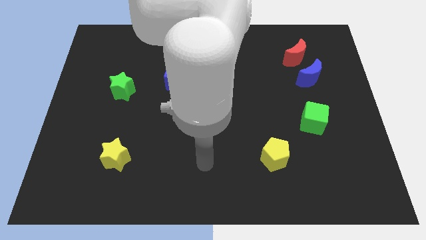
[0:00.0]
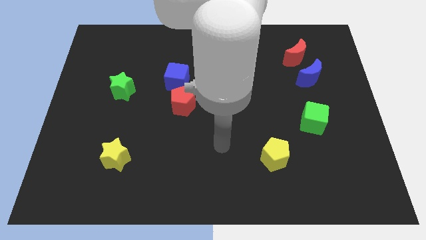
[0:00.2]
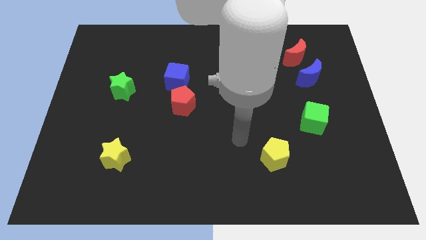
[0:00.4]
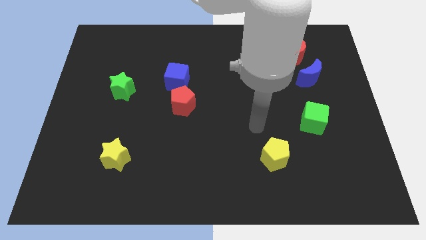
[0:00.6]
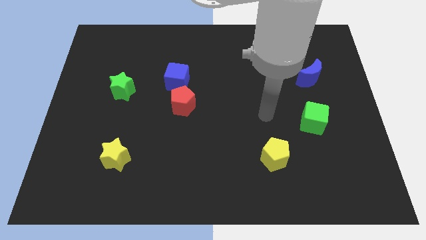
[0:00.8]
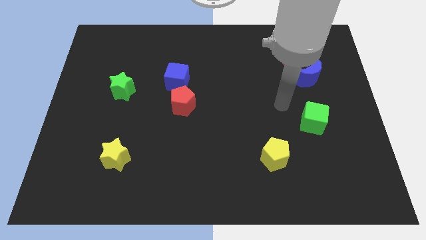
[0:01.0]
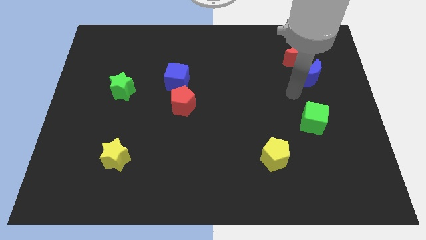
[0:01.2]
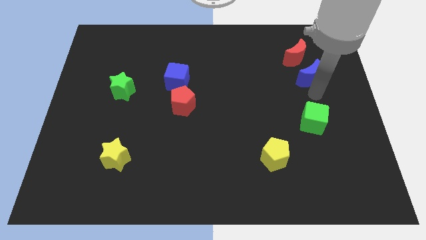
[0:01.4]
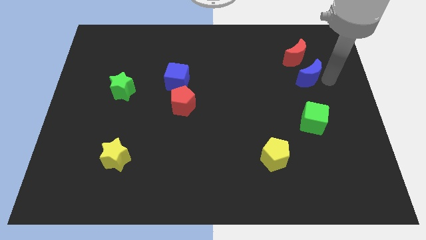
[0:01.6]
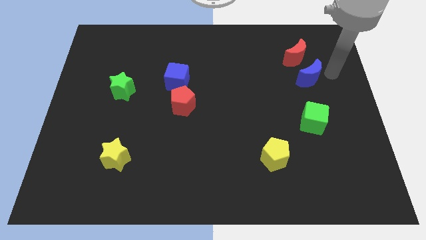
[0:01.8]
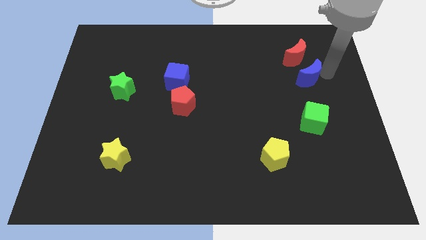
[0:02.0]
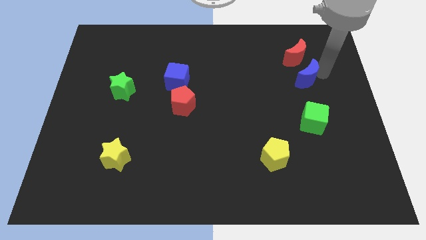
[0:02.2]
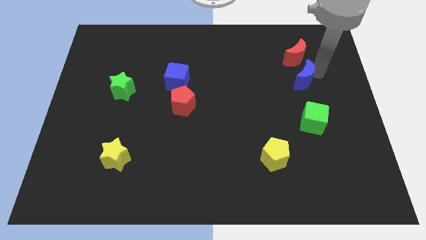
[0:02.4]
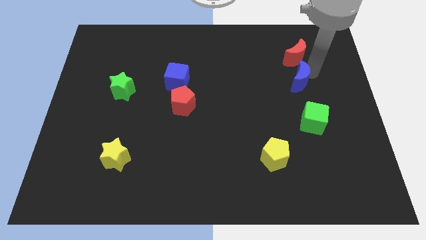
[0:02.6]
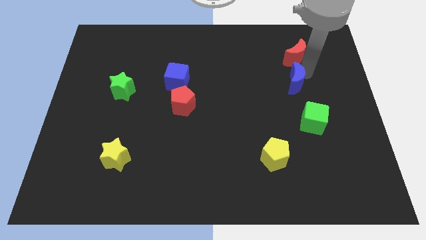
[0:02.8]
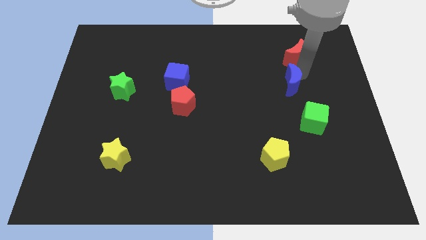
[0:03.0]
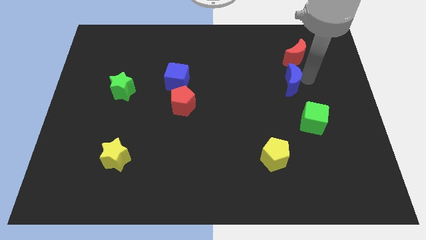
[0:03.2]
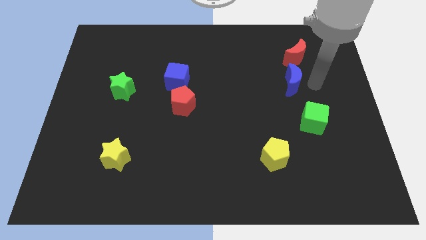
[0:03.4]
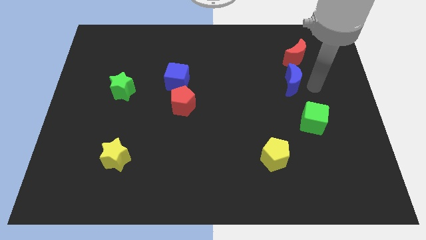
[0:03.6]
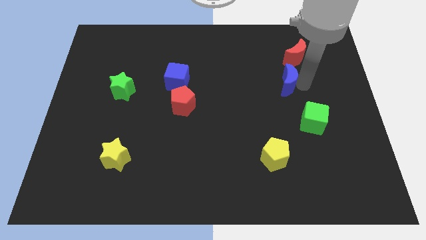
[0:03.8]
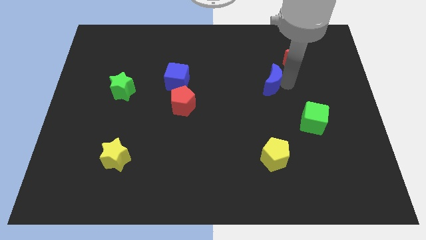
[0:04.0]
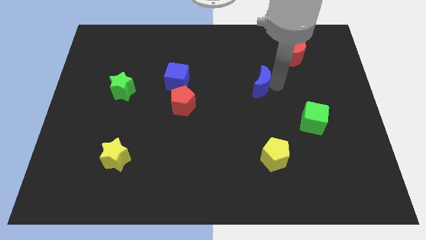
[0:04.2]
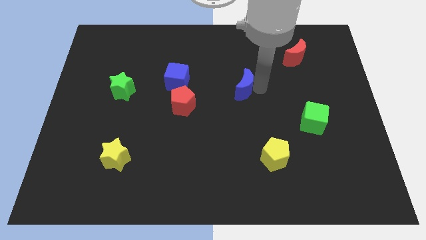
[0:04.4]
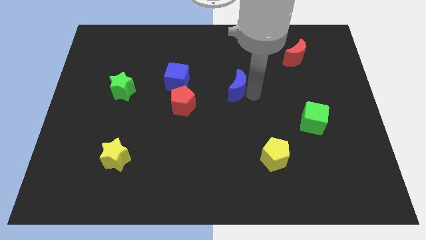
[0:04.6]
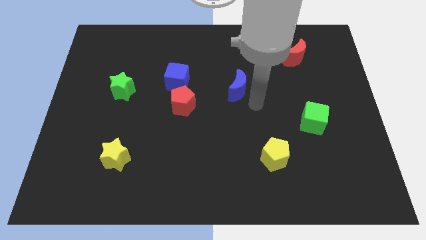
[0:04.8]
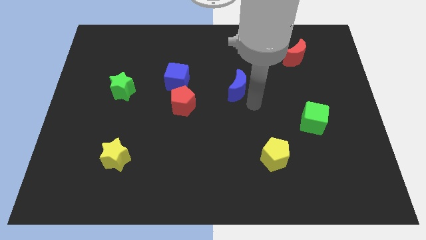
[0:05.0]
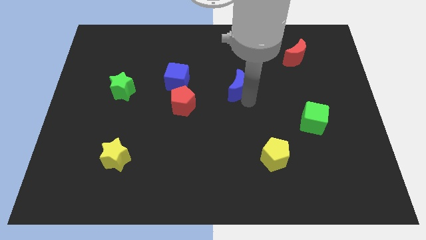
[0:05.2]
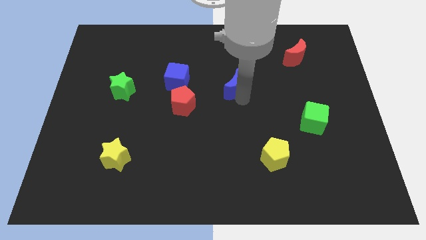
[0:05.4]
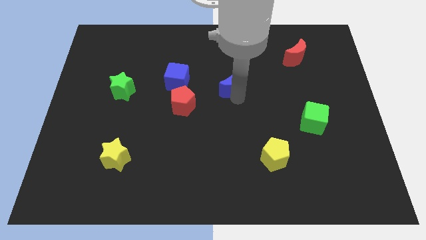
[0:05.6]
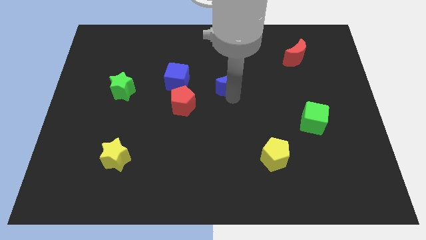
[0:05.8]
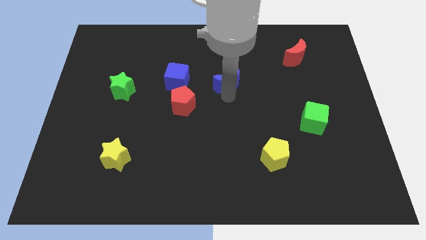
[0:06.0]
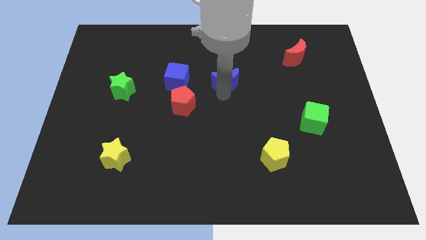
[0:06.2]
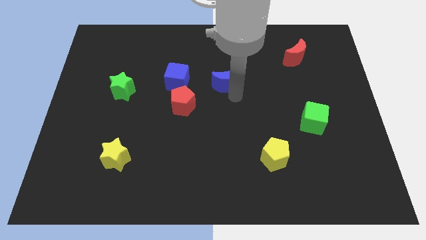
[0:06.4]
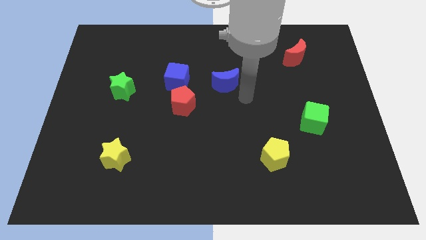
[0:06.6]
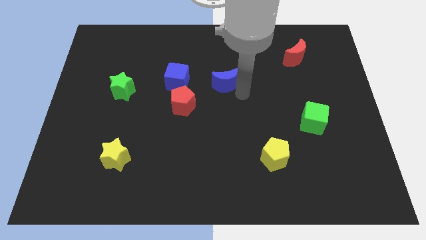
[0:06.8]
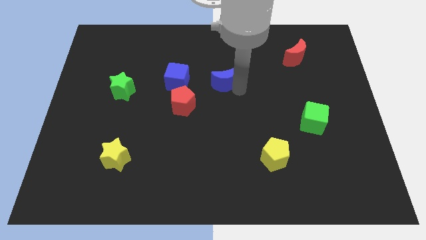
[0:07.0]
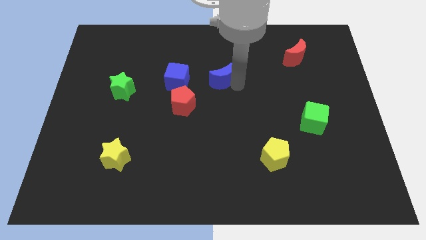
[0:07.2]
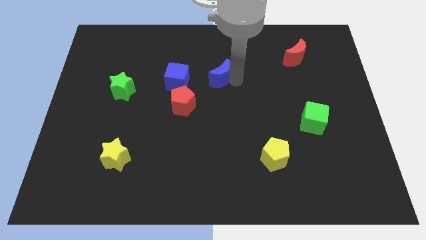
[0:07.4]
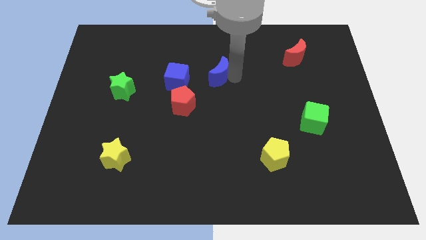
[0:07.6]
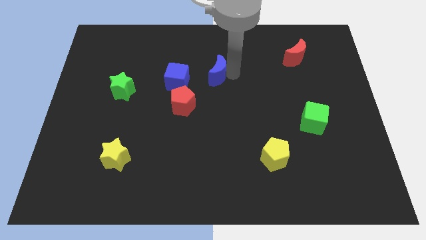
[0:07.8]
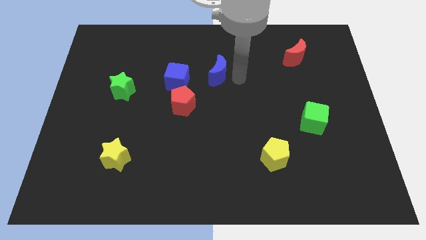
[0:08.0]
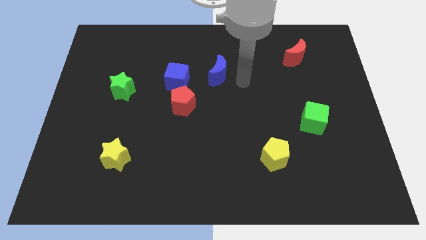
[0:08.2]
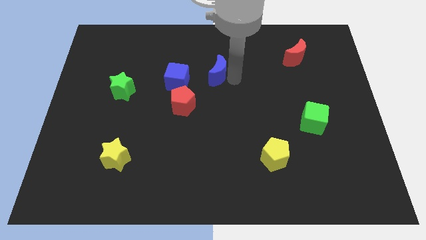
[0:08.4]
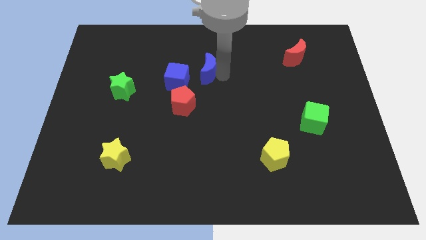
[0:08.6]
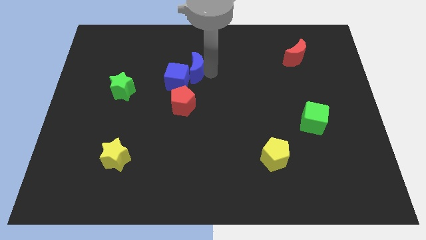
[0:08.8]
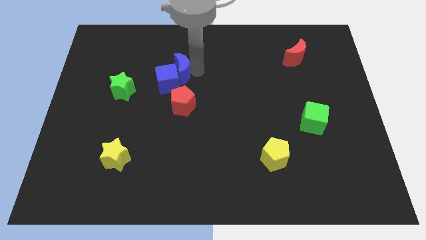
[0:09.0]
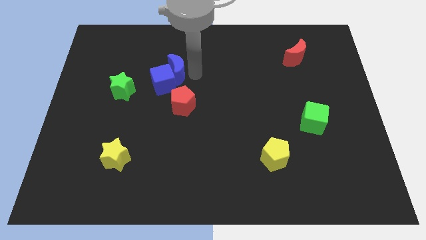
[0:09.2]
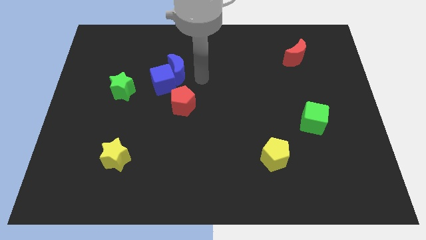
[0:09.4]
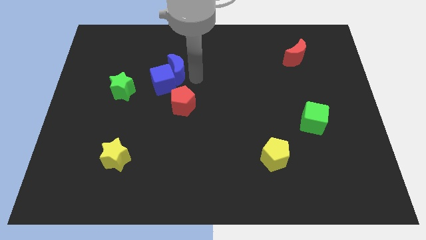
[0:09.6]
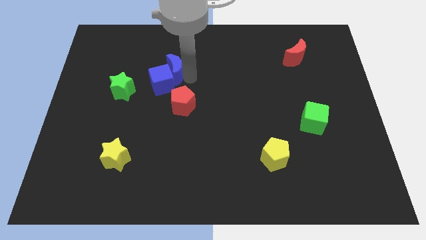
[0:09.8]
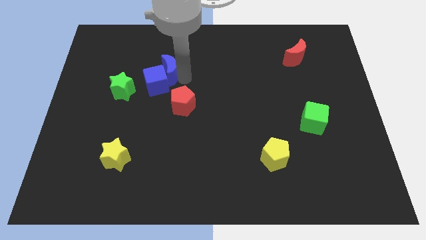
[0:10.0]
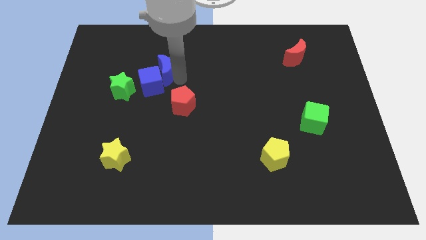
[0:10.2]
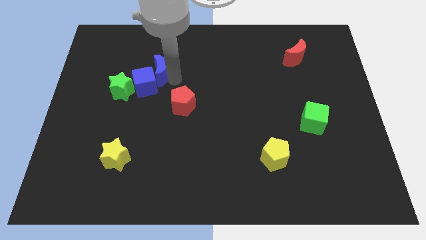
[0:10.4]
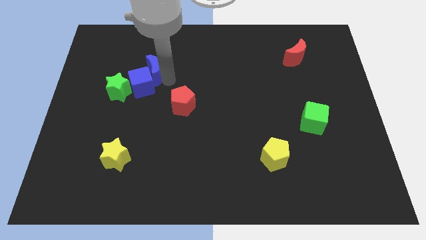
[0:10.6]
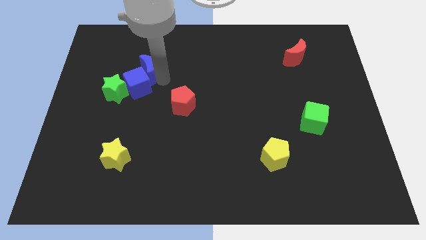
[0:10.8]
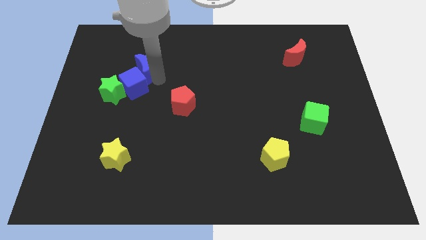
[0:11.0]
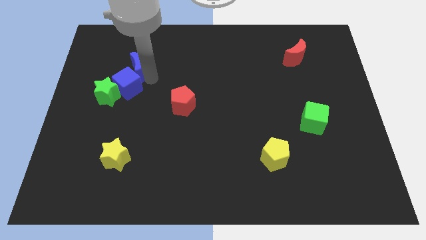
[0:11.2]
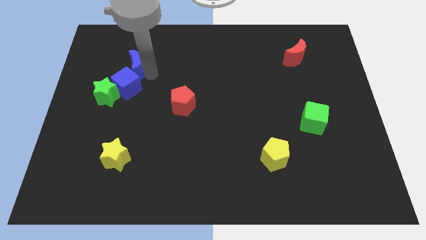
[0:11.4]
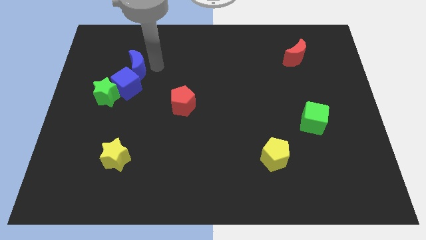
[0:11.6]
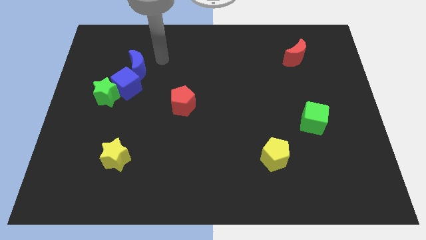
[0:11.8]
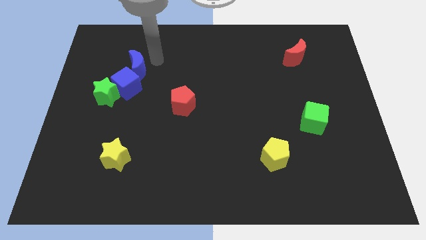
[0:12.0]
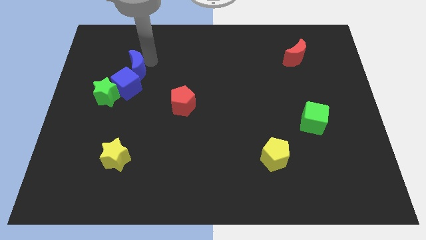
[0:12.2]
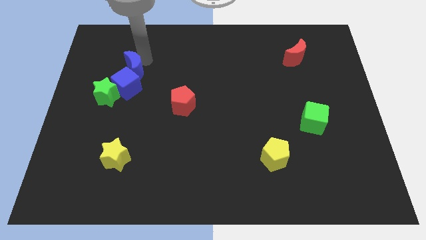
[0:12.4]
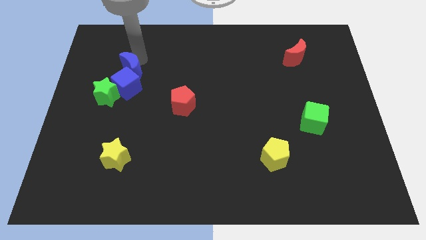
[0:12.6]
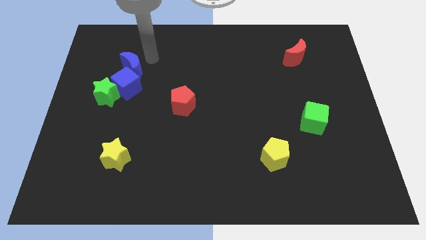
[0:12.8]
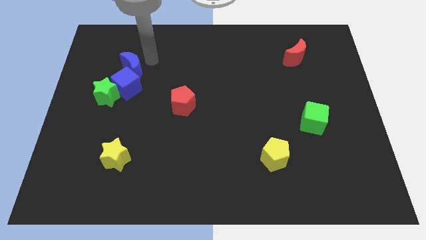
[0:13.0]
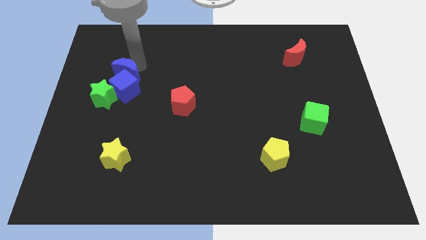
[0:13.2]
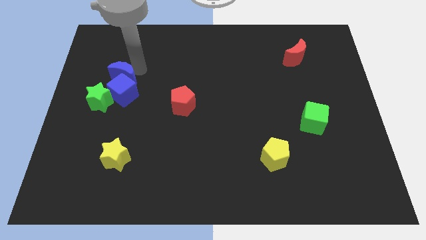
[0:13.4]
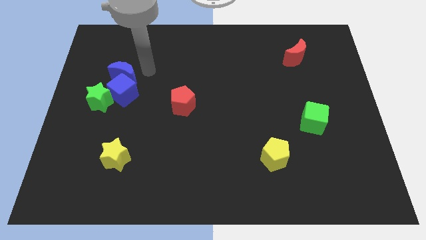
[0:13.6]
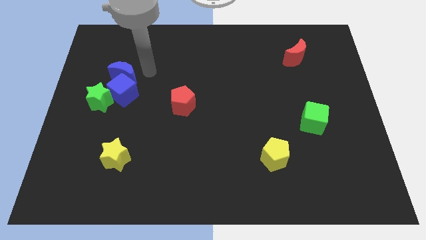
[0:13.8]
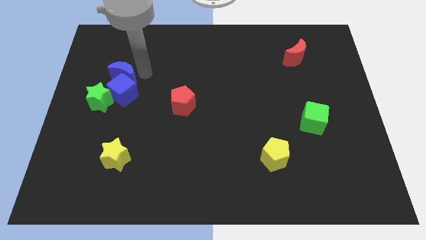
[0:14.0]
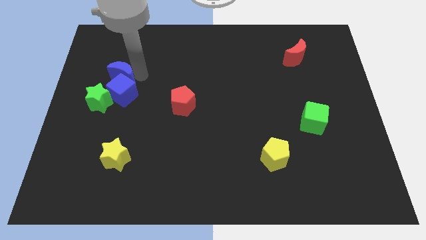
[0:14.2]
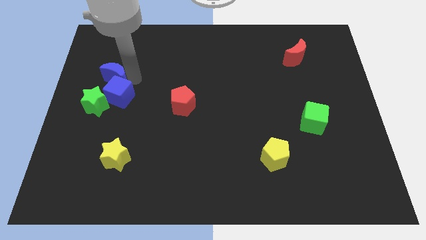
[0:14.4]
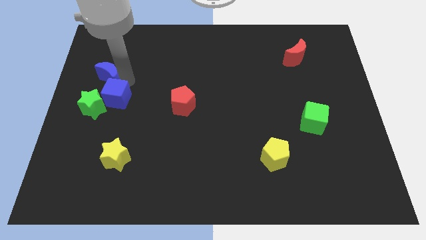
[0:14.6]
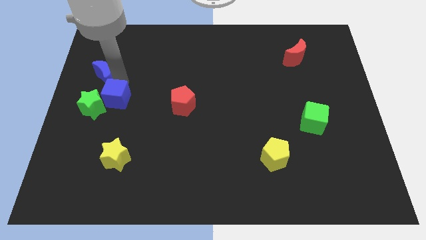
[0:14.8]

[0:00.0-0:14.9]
move the blue moon to the left side of the board
